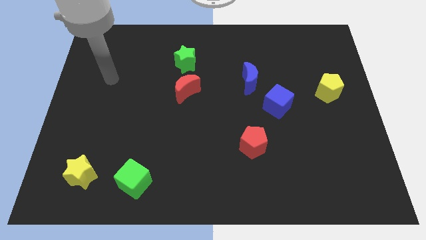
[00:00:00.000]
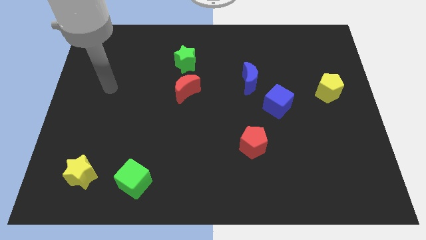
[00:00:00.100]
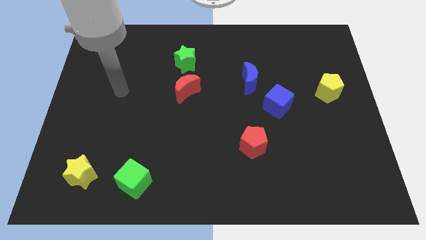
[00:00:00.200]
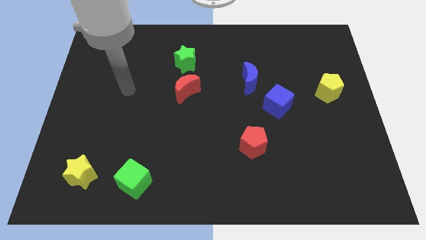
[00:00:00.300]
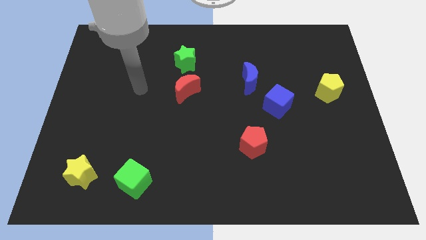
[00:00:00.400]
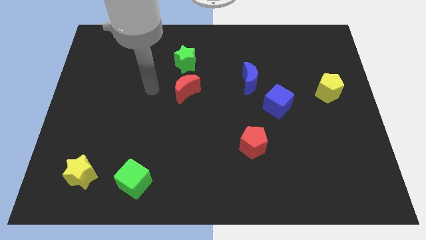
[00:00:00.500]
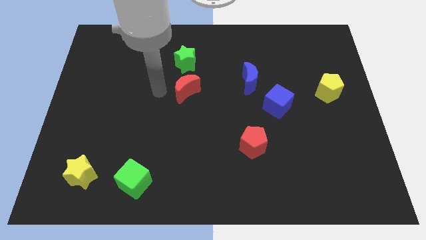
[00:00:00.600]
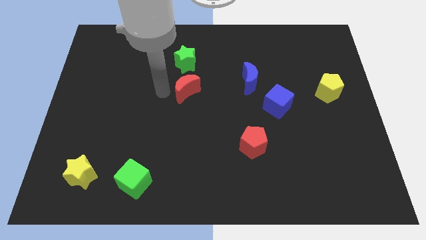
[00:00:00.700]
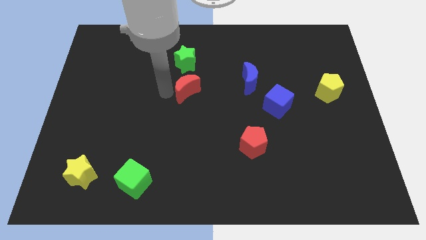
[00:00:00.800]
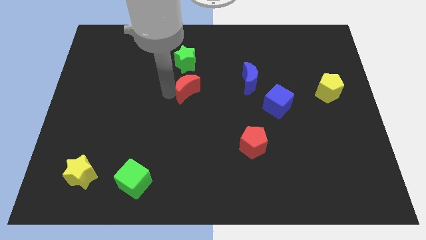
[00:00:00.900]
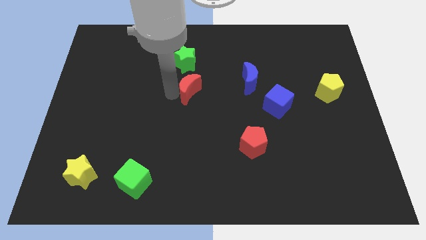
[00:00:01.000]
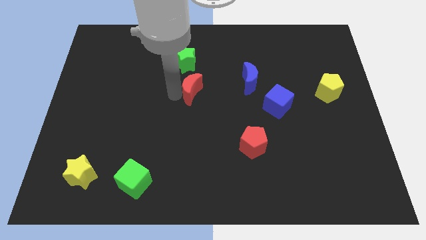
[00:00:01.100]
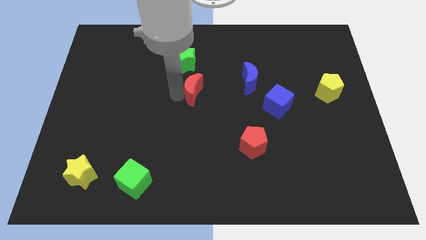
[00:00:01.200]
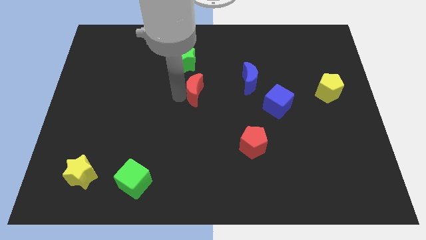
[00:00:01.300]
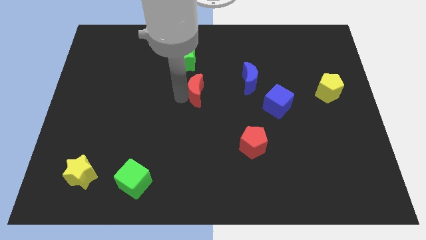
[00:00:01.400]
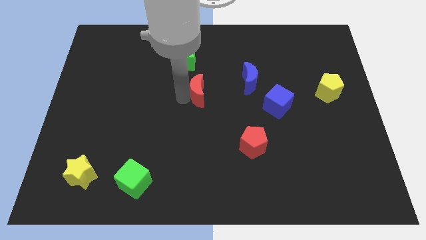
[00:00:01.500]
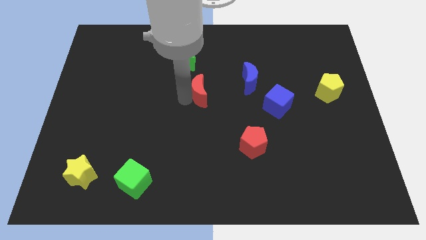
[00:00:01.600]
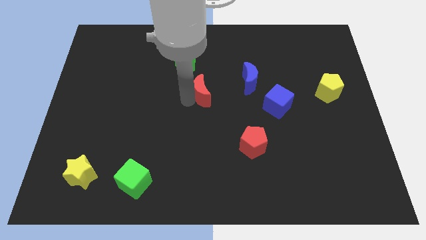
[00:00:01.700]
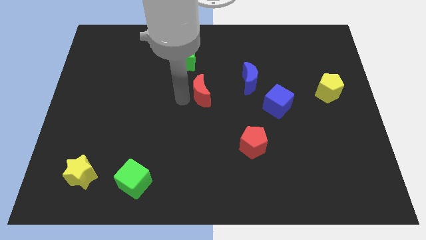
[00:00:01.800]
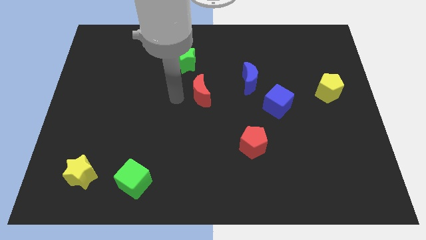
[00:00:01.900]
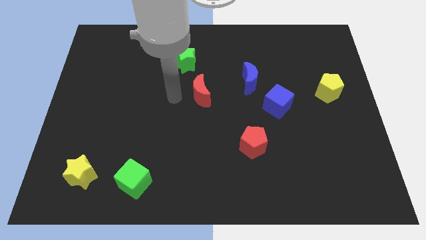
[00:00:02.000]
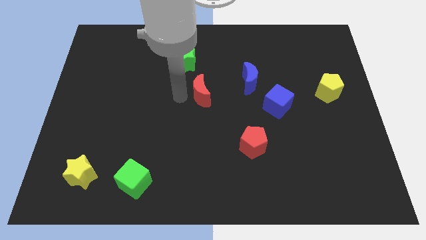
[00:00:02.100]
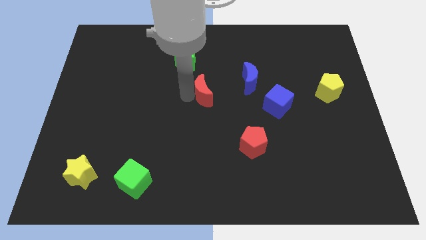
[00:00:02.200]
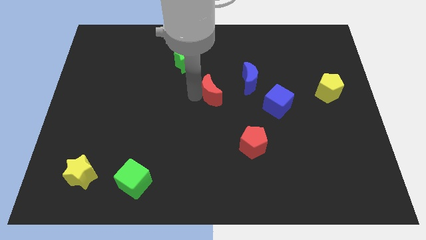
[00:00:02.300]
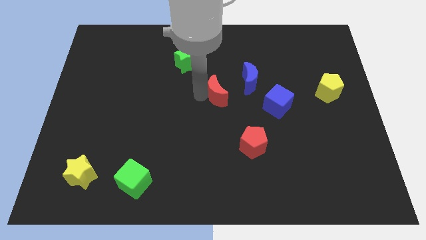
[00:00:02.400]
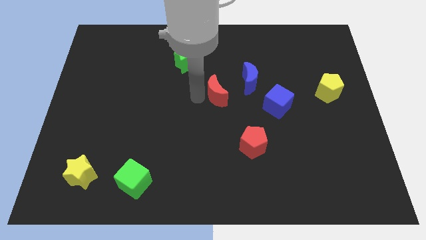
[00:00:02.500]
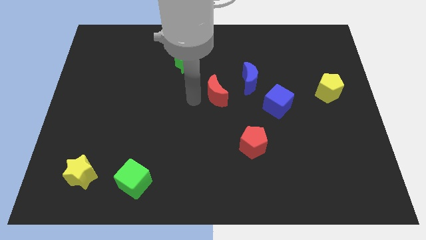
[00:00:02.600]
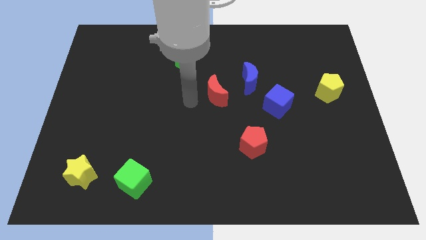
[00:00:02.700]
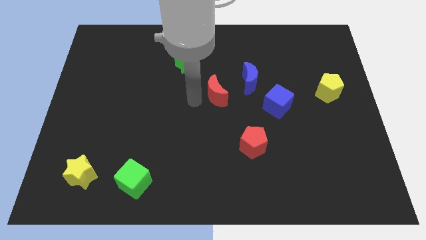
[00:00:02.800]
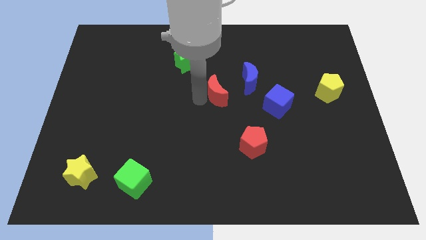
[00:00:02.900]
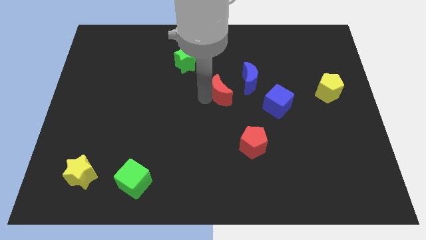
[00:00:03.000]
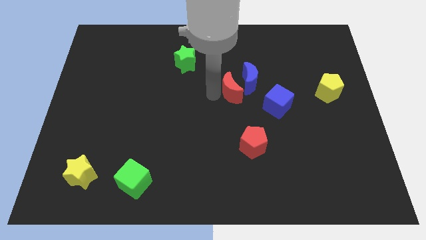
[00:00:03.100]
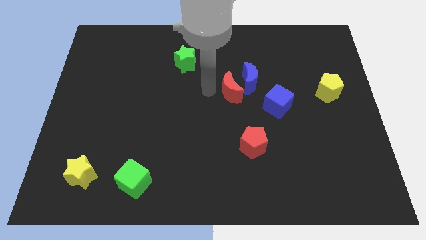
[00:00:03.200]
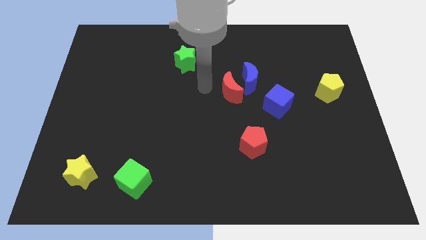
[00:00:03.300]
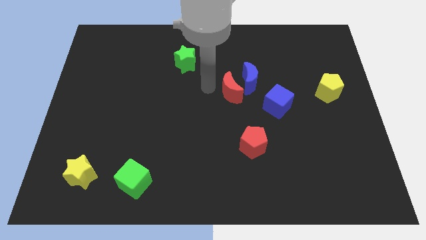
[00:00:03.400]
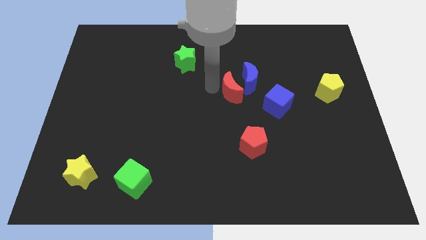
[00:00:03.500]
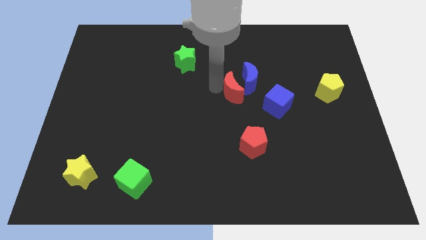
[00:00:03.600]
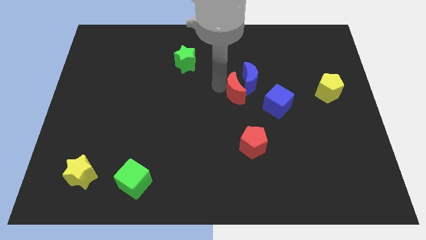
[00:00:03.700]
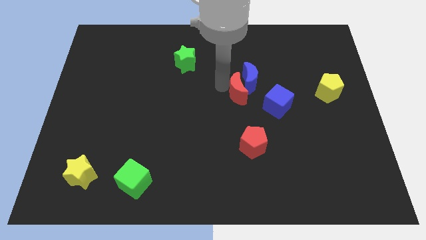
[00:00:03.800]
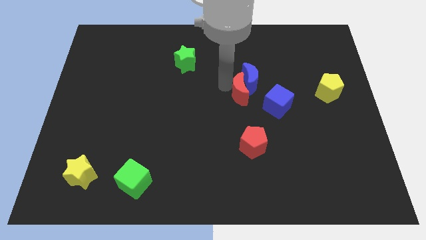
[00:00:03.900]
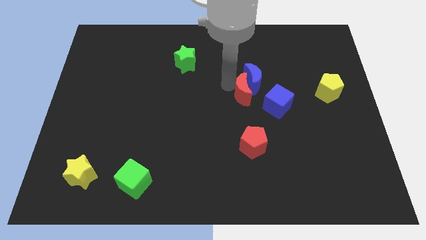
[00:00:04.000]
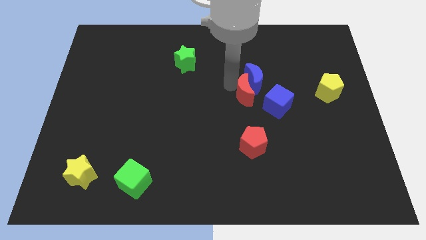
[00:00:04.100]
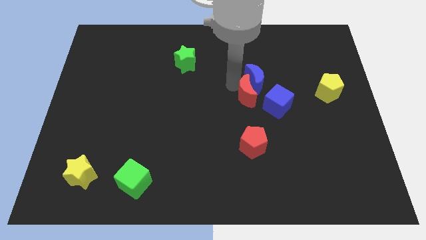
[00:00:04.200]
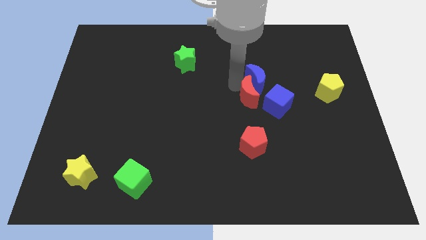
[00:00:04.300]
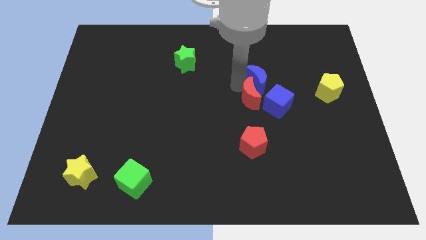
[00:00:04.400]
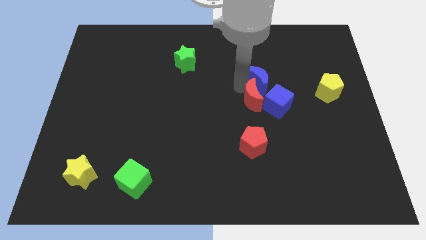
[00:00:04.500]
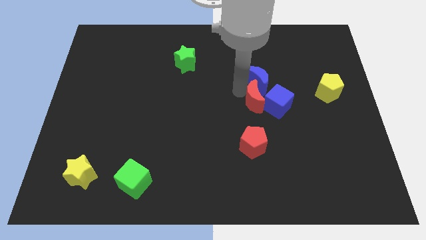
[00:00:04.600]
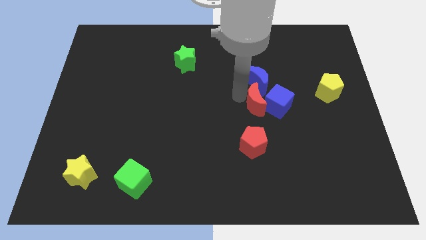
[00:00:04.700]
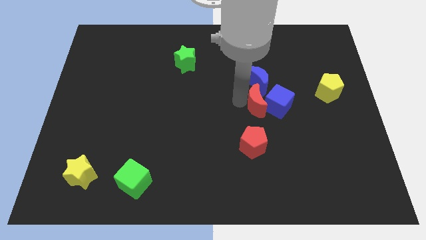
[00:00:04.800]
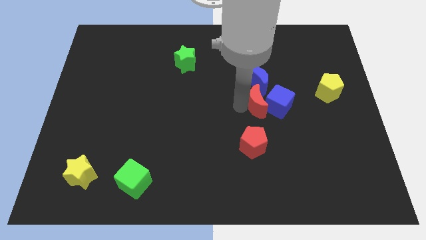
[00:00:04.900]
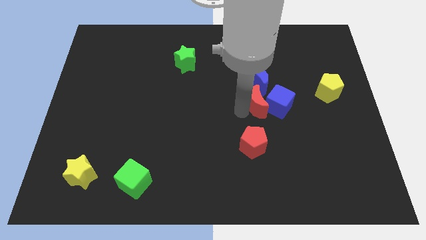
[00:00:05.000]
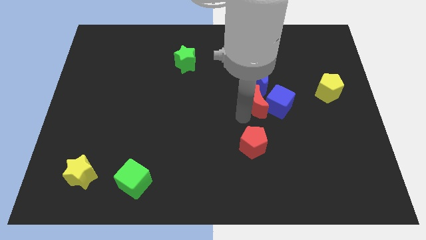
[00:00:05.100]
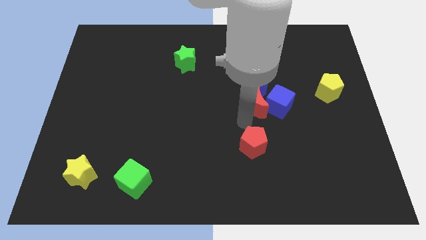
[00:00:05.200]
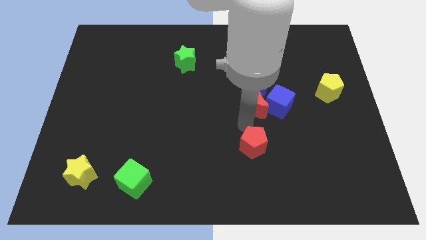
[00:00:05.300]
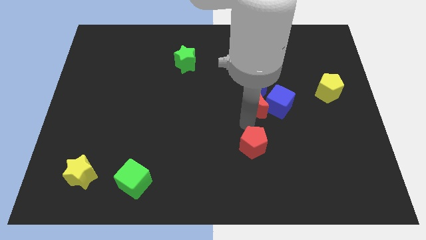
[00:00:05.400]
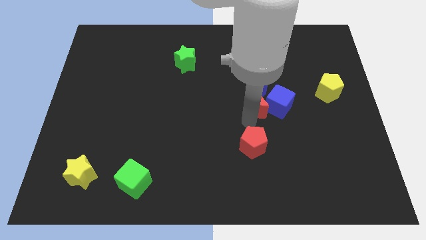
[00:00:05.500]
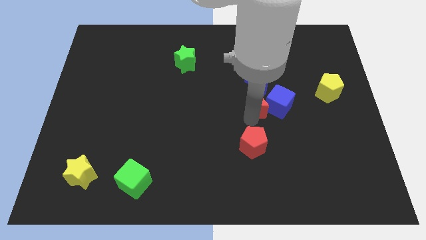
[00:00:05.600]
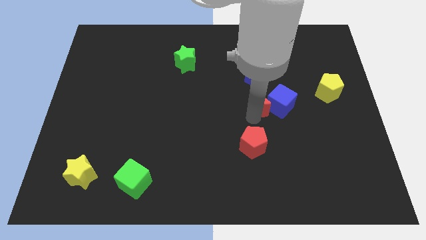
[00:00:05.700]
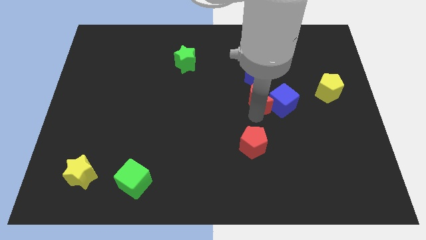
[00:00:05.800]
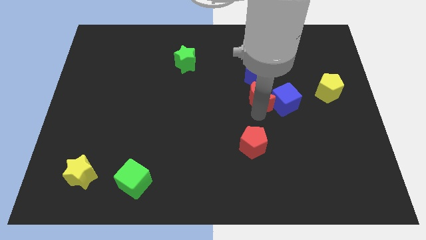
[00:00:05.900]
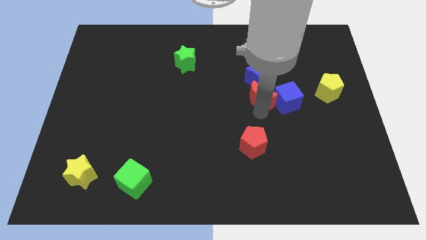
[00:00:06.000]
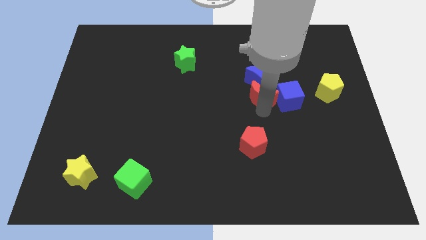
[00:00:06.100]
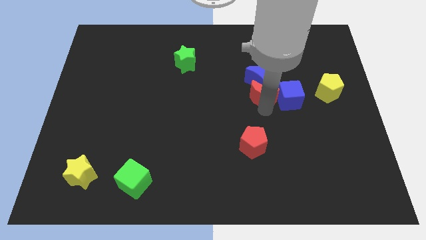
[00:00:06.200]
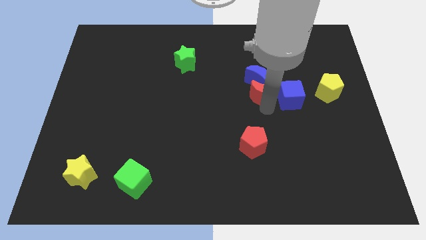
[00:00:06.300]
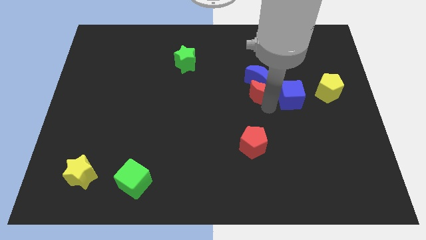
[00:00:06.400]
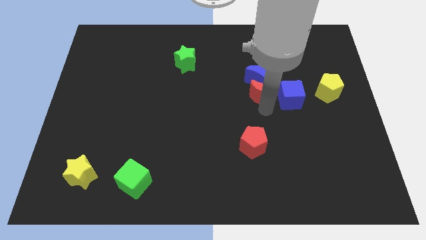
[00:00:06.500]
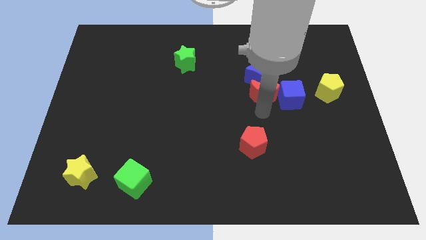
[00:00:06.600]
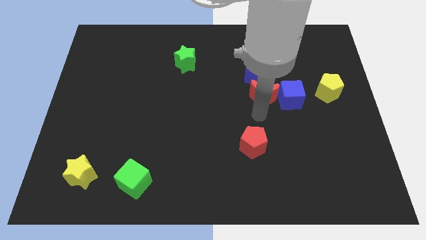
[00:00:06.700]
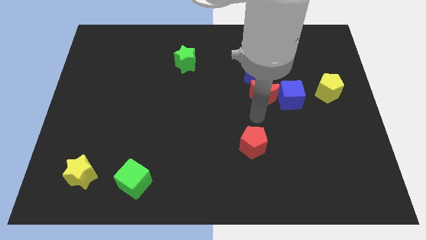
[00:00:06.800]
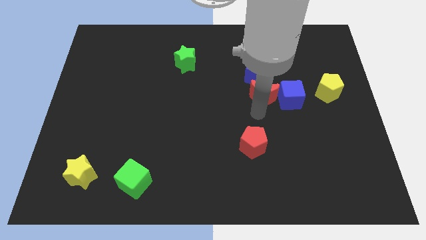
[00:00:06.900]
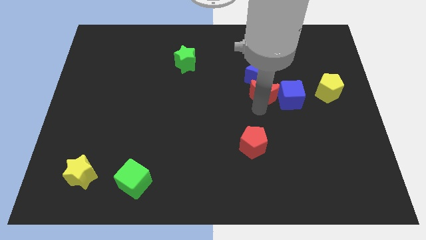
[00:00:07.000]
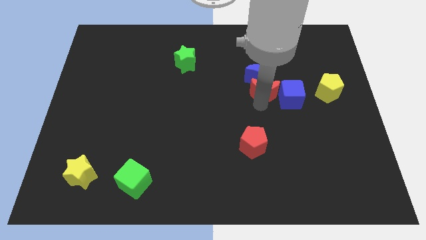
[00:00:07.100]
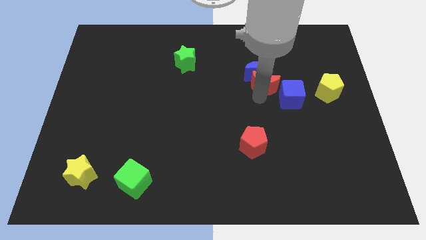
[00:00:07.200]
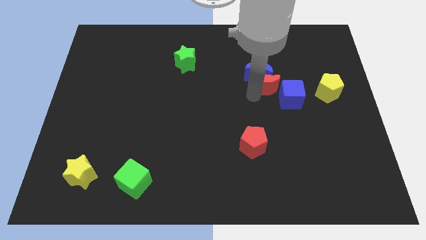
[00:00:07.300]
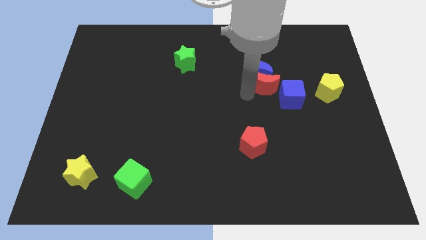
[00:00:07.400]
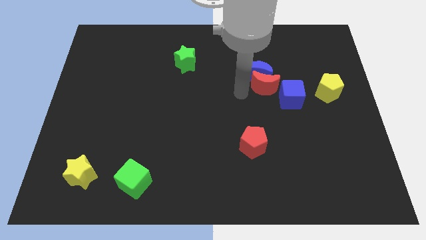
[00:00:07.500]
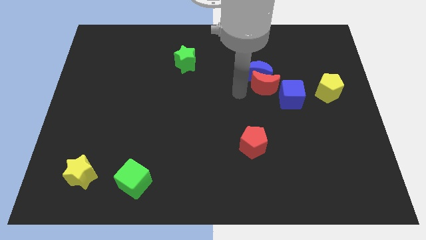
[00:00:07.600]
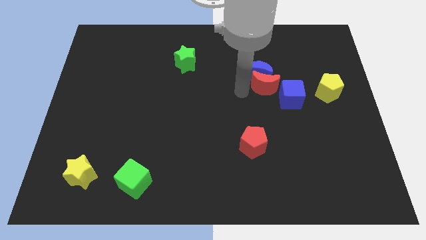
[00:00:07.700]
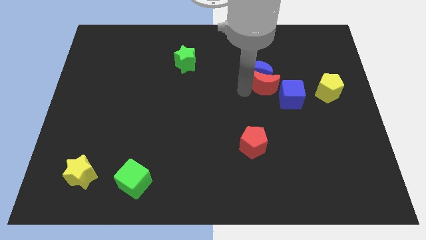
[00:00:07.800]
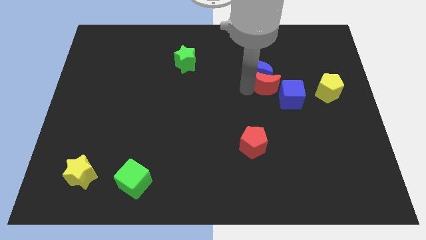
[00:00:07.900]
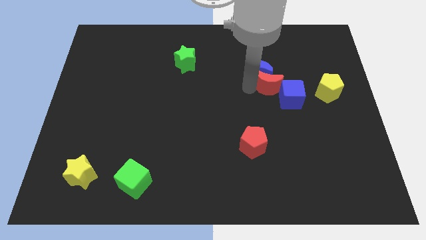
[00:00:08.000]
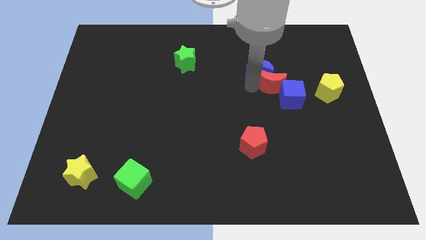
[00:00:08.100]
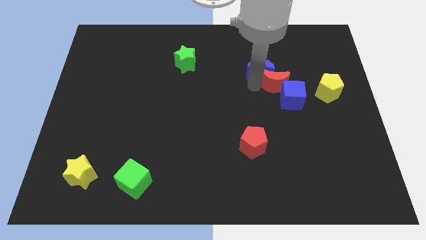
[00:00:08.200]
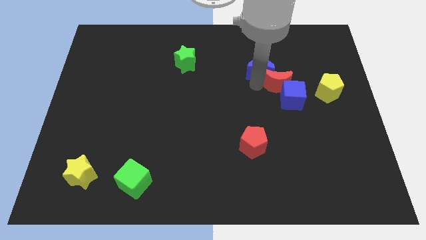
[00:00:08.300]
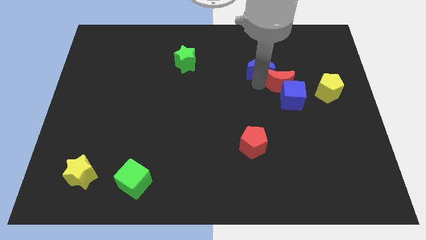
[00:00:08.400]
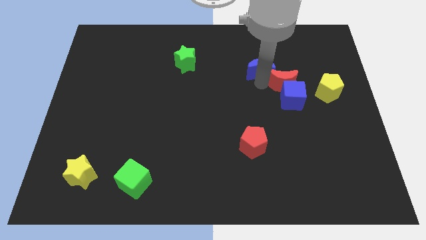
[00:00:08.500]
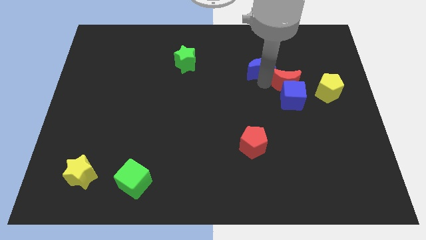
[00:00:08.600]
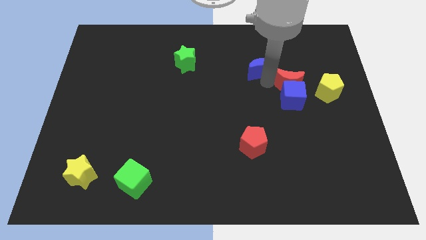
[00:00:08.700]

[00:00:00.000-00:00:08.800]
slide the red moon to the top left side of the yellow pentagon
